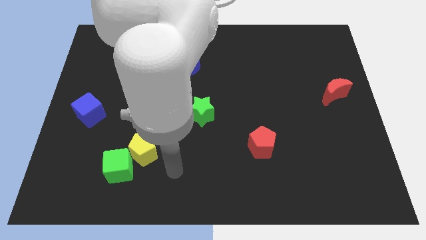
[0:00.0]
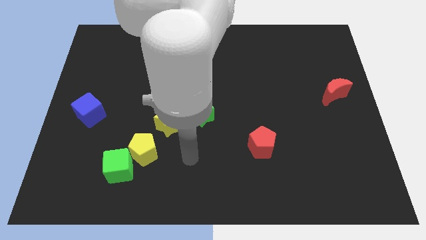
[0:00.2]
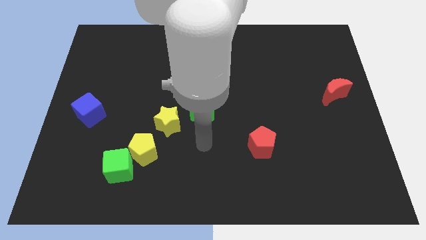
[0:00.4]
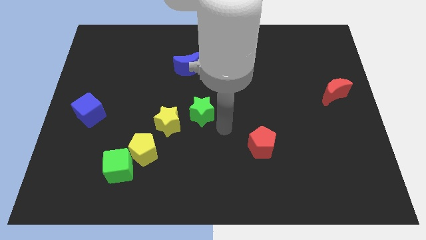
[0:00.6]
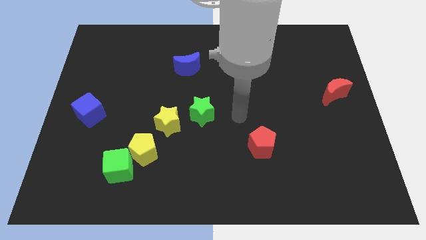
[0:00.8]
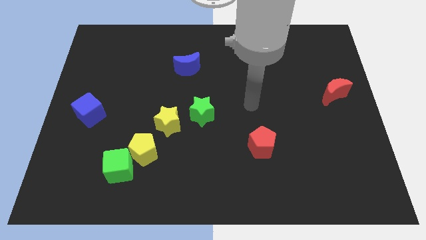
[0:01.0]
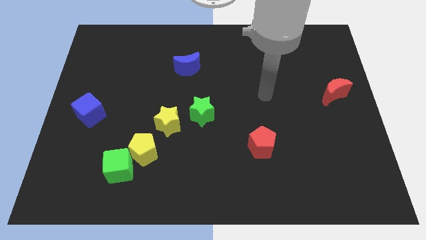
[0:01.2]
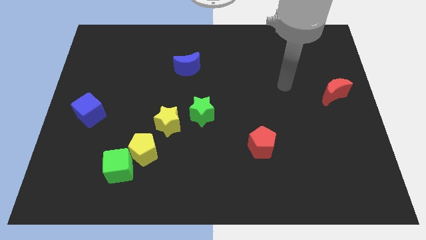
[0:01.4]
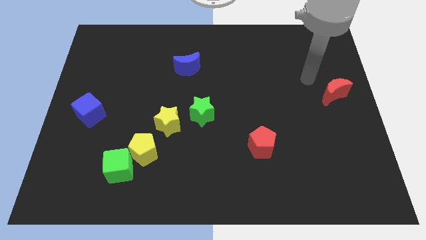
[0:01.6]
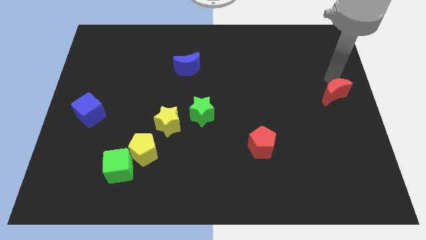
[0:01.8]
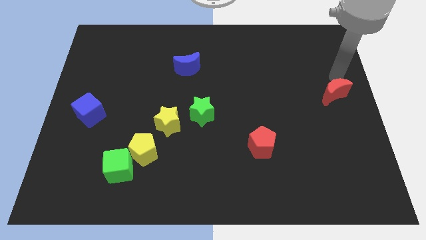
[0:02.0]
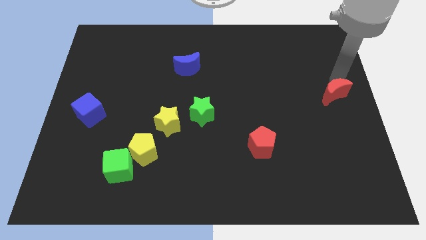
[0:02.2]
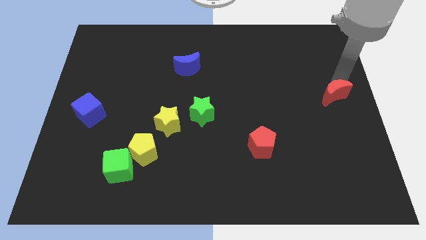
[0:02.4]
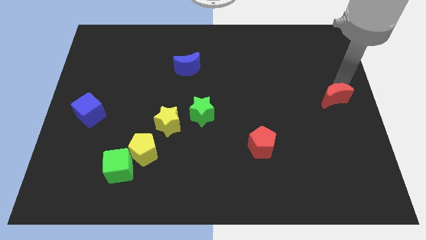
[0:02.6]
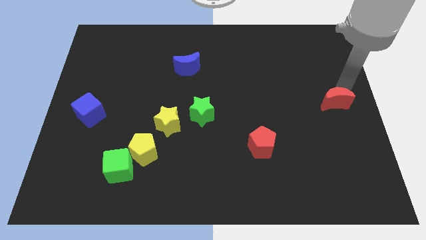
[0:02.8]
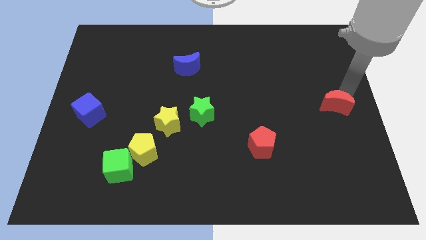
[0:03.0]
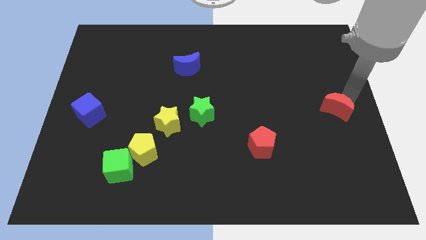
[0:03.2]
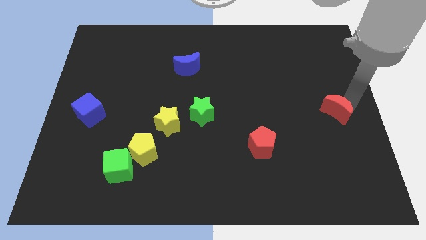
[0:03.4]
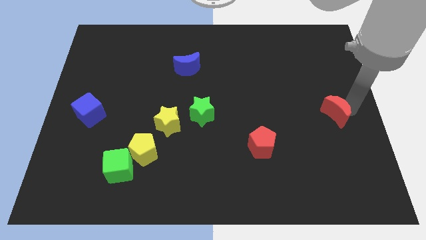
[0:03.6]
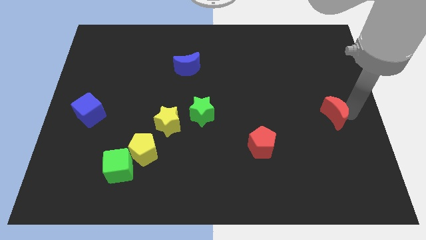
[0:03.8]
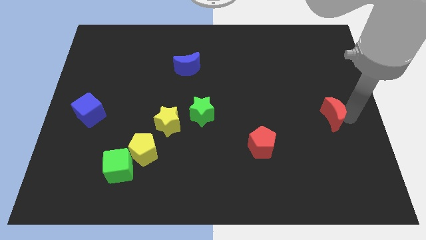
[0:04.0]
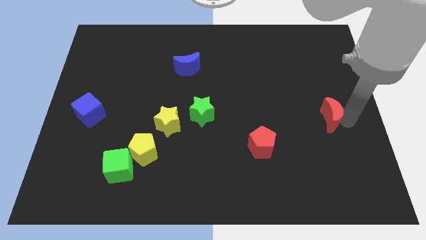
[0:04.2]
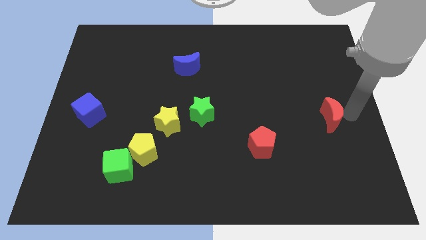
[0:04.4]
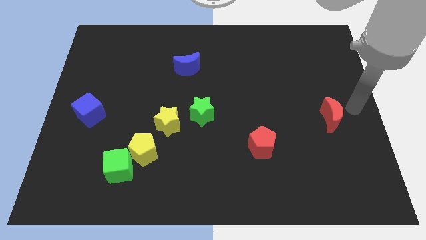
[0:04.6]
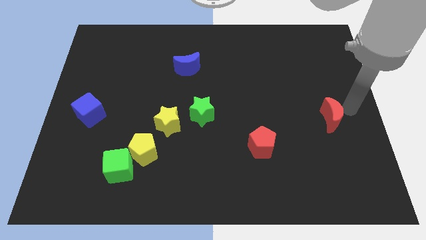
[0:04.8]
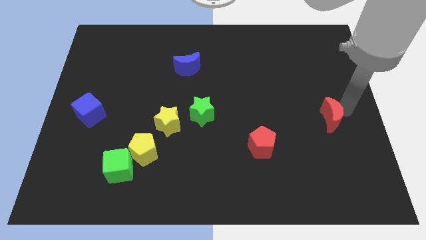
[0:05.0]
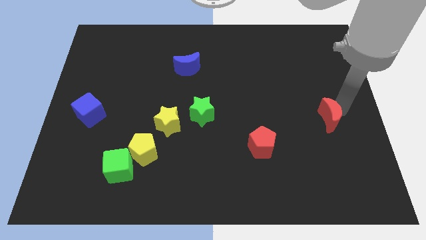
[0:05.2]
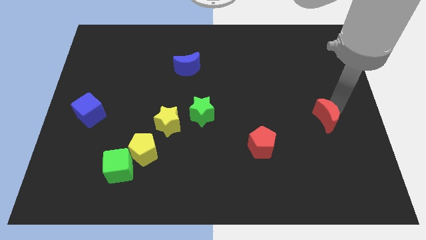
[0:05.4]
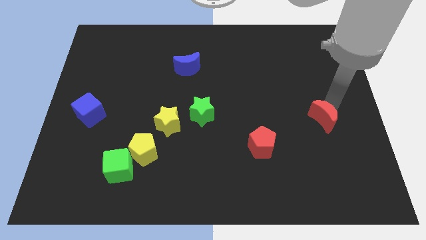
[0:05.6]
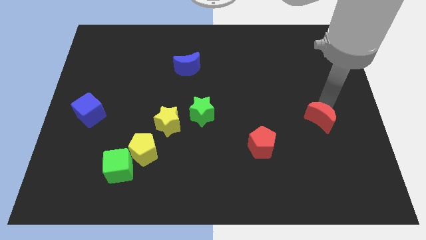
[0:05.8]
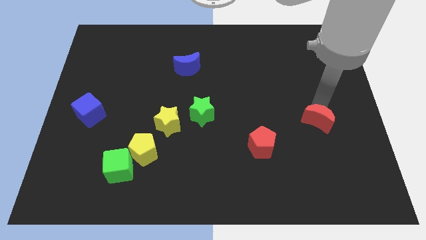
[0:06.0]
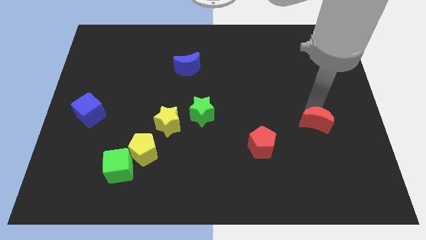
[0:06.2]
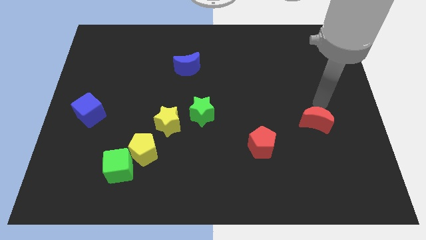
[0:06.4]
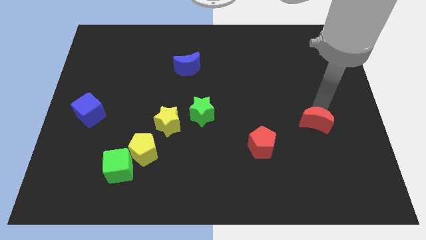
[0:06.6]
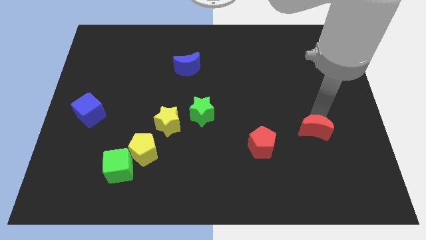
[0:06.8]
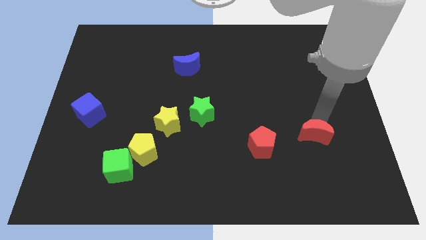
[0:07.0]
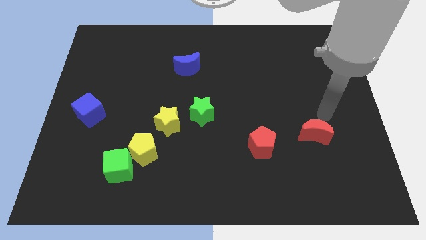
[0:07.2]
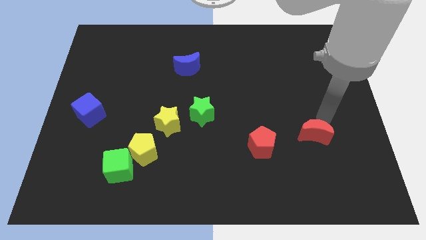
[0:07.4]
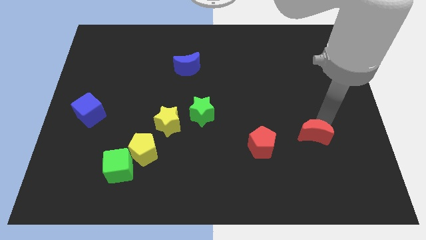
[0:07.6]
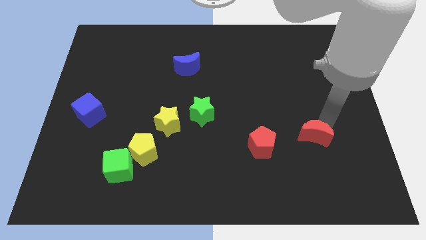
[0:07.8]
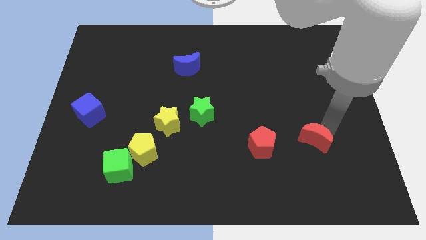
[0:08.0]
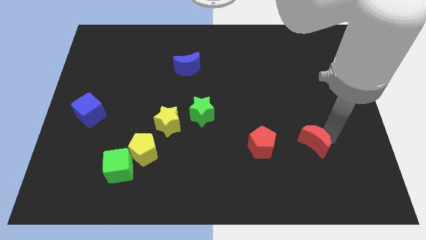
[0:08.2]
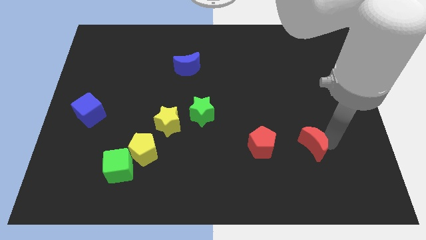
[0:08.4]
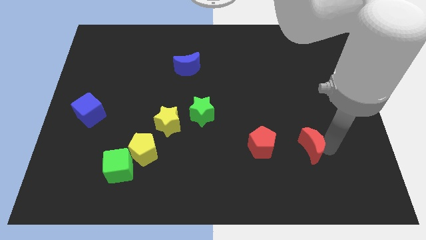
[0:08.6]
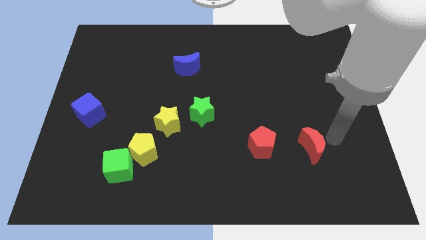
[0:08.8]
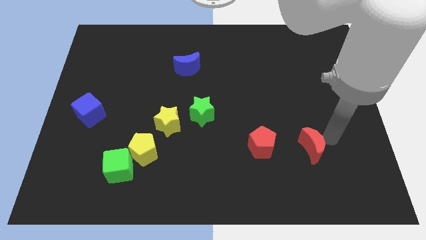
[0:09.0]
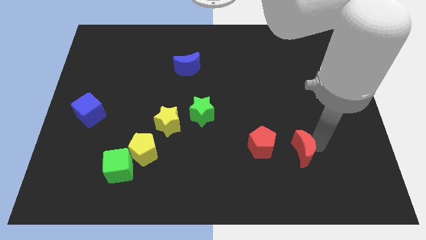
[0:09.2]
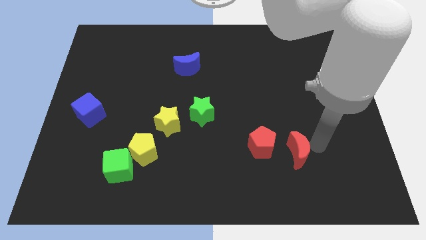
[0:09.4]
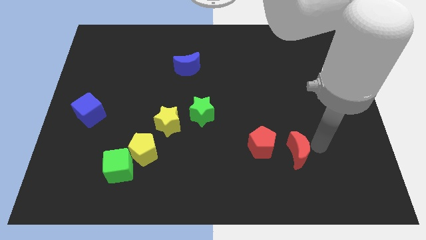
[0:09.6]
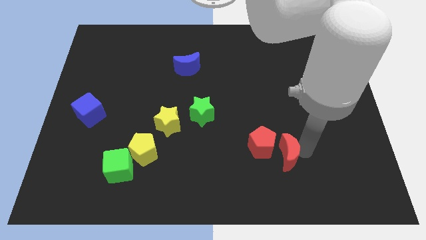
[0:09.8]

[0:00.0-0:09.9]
push the red moon downwards and left

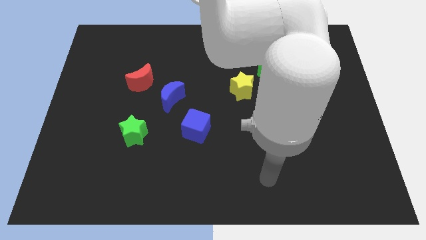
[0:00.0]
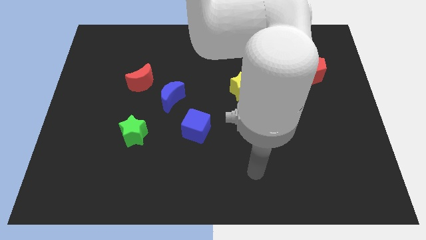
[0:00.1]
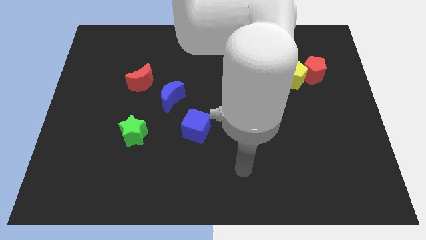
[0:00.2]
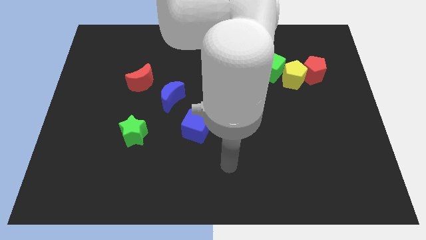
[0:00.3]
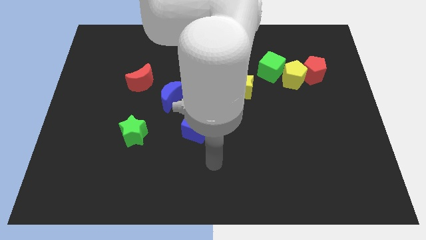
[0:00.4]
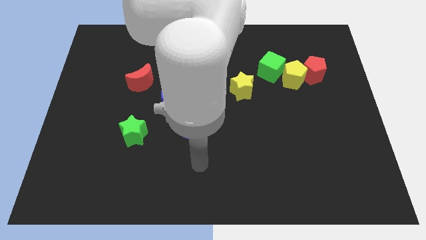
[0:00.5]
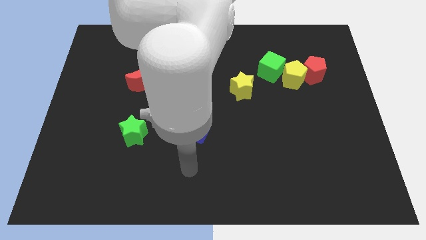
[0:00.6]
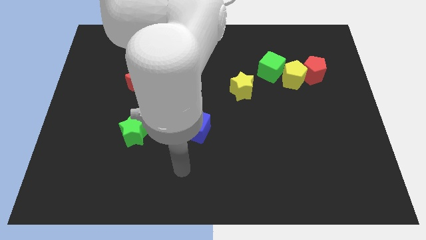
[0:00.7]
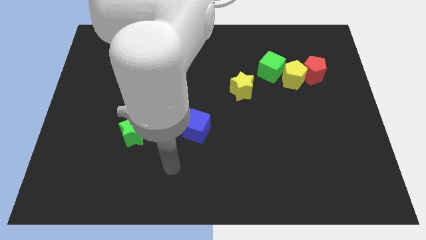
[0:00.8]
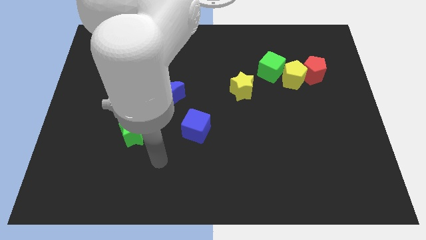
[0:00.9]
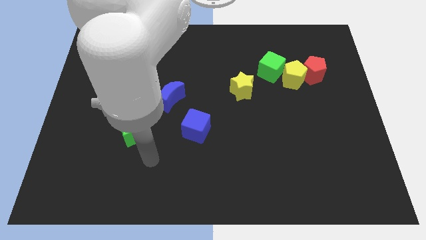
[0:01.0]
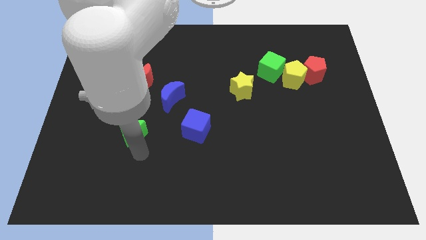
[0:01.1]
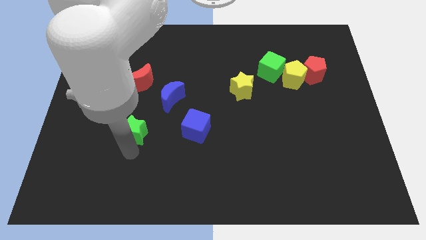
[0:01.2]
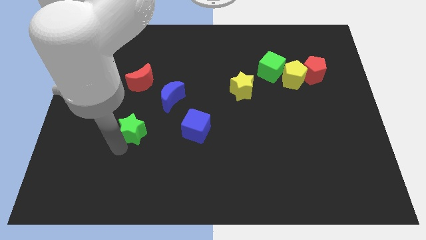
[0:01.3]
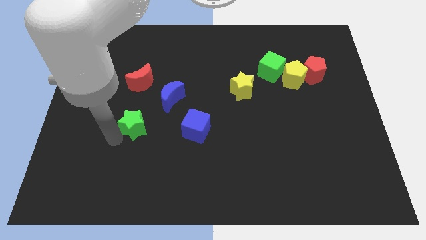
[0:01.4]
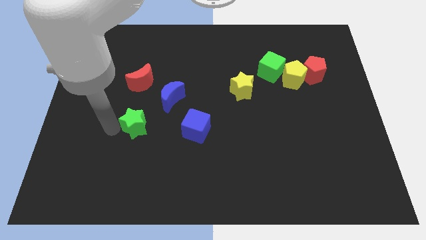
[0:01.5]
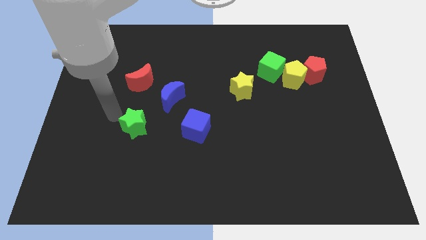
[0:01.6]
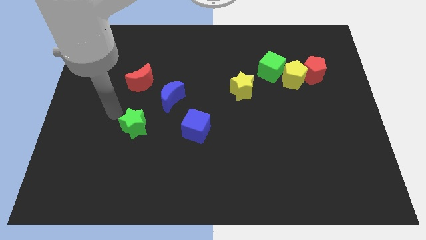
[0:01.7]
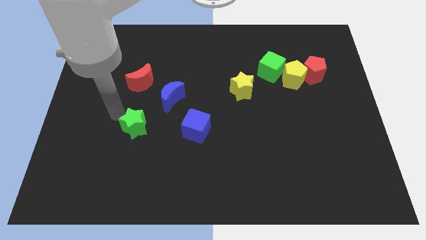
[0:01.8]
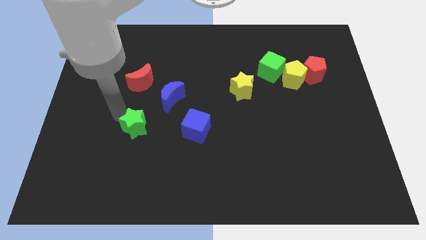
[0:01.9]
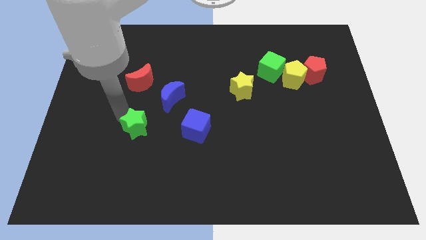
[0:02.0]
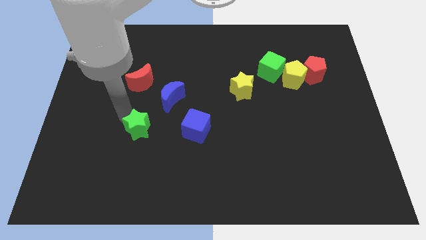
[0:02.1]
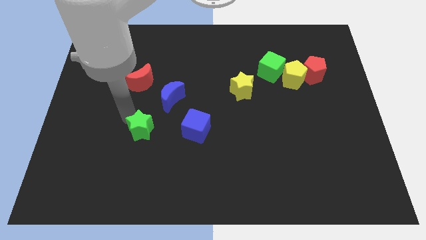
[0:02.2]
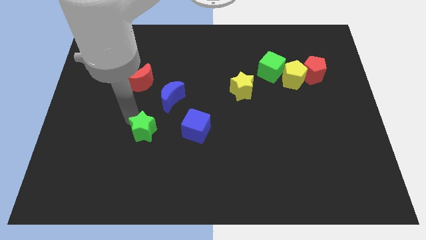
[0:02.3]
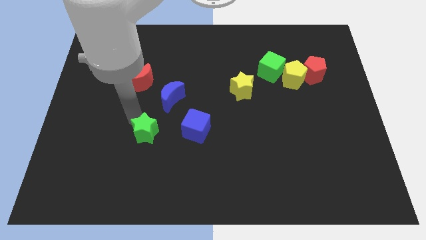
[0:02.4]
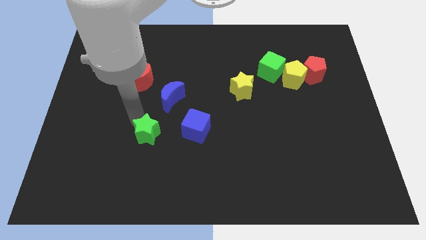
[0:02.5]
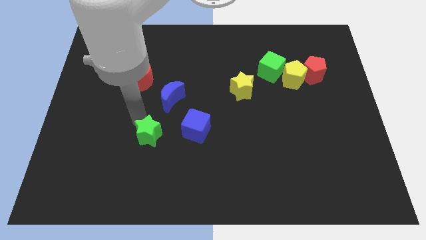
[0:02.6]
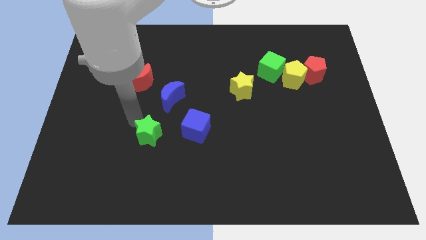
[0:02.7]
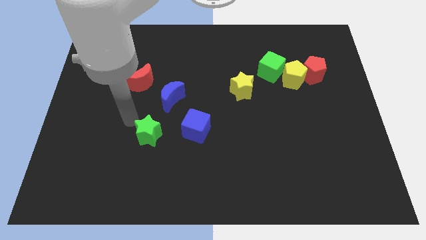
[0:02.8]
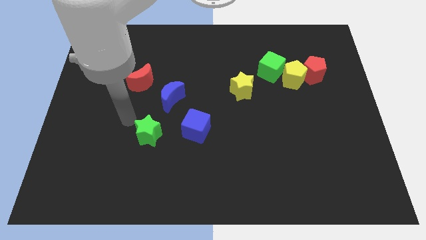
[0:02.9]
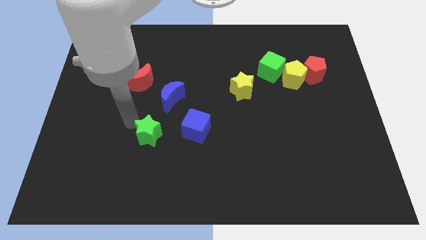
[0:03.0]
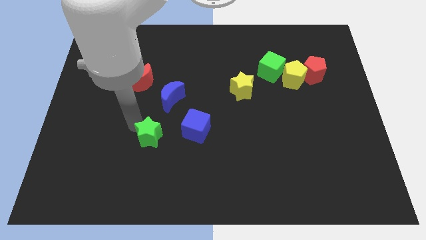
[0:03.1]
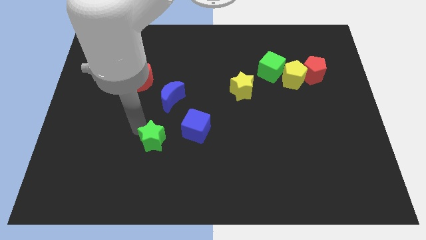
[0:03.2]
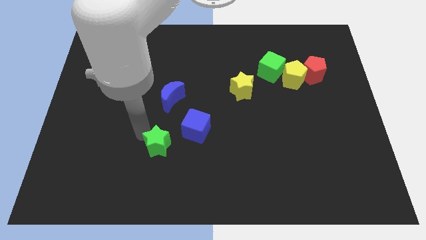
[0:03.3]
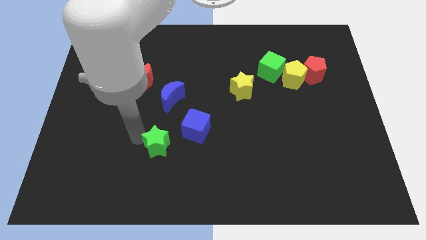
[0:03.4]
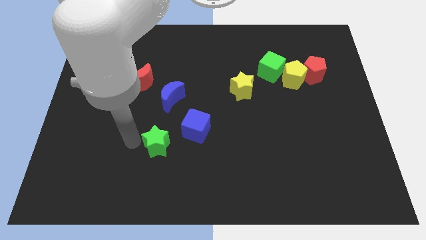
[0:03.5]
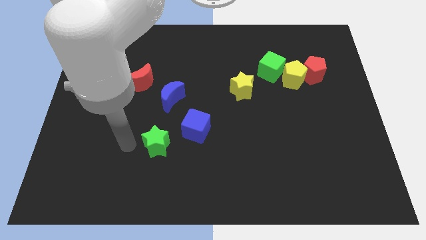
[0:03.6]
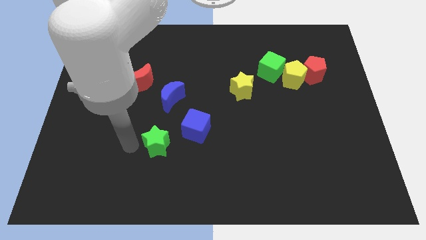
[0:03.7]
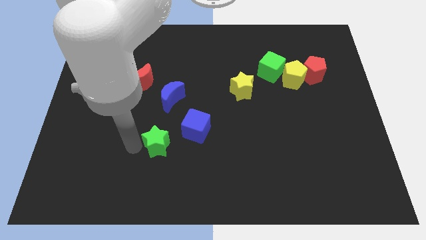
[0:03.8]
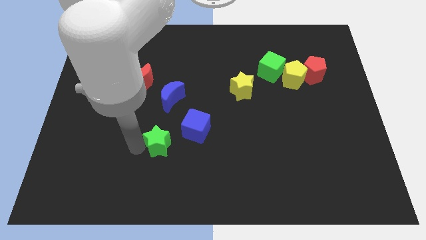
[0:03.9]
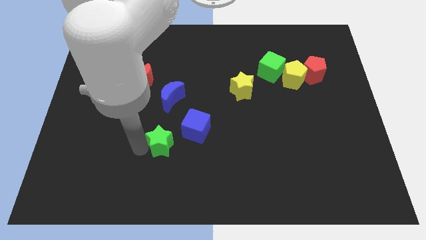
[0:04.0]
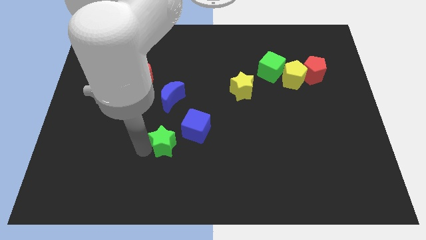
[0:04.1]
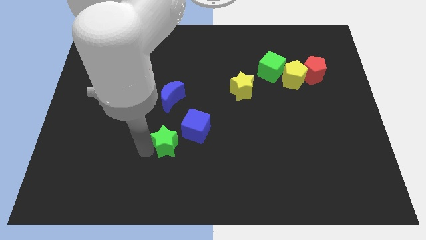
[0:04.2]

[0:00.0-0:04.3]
slightly move the green star right
